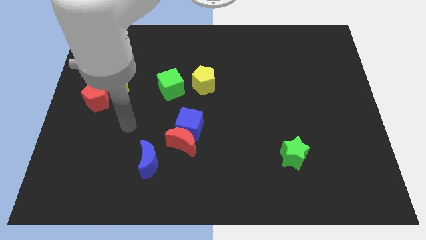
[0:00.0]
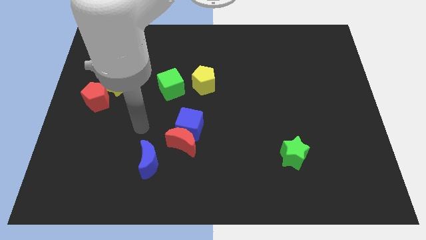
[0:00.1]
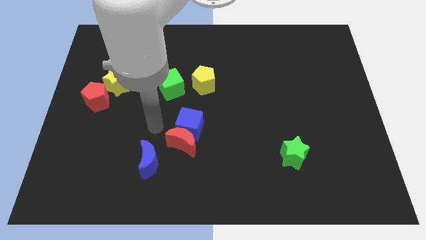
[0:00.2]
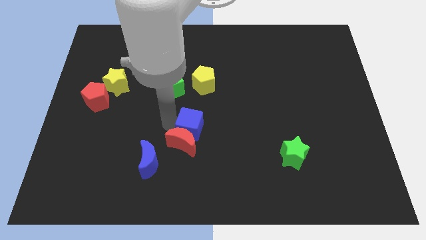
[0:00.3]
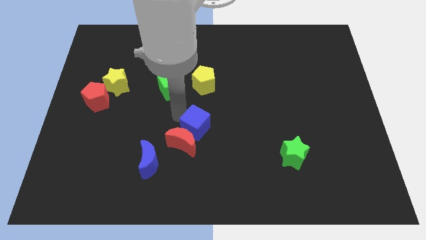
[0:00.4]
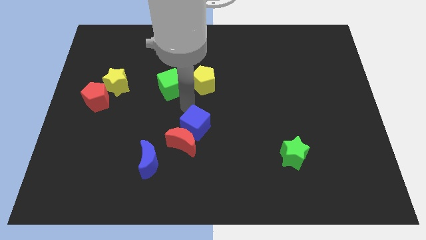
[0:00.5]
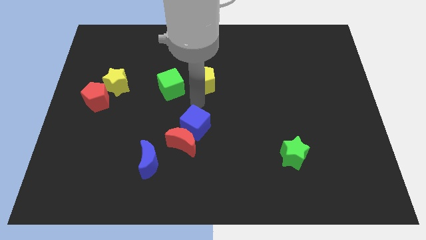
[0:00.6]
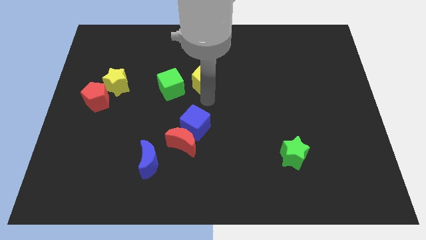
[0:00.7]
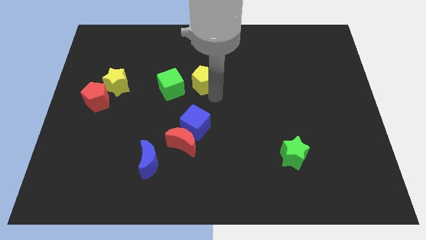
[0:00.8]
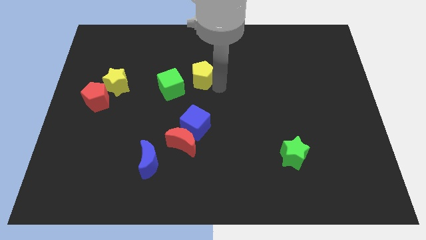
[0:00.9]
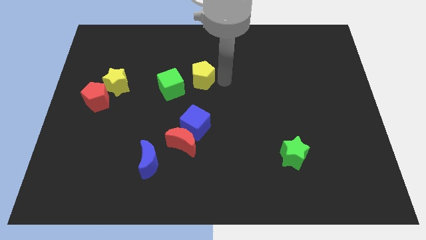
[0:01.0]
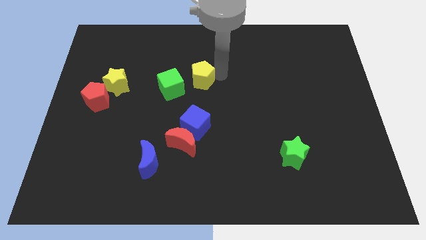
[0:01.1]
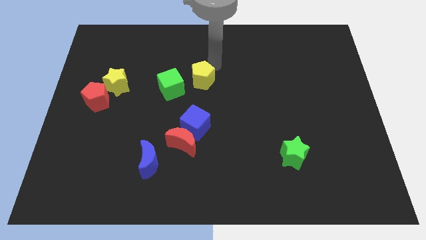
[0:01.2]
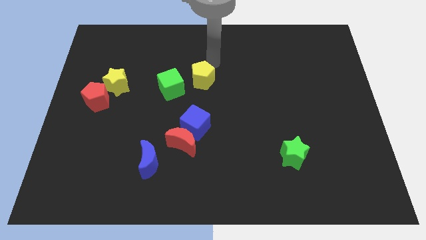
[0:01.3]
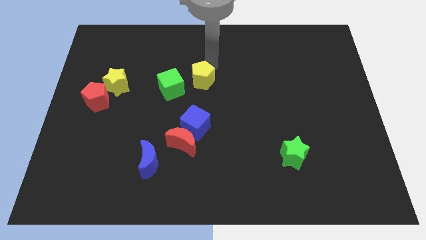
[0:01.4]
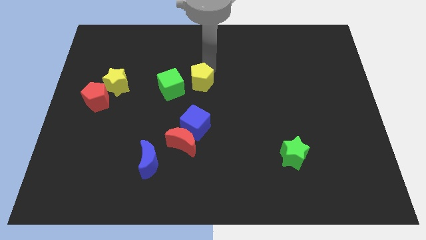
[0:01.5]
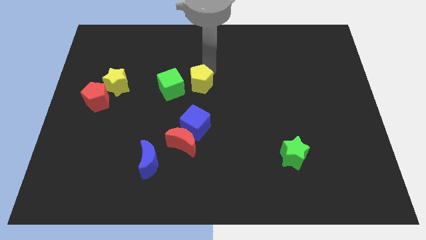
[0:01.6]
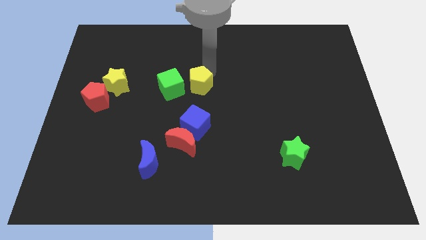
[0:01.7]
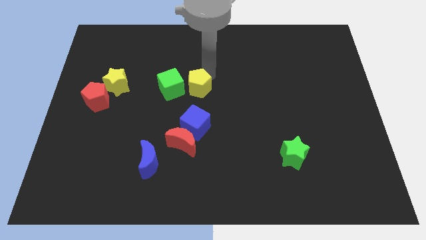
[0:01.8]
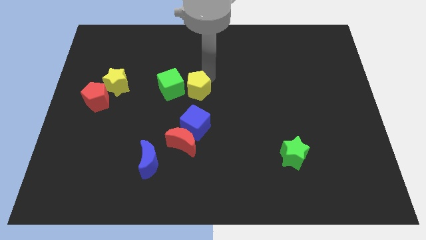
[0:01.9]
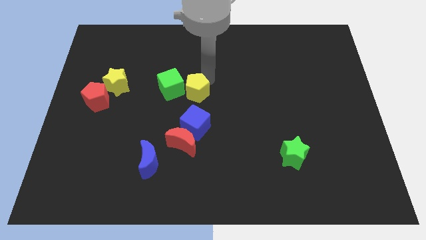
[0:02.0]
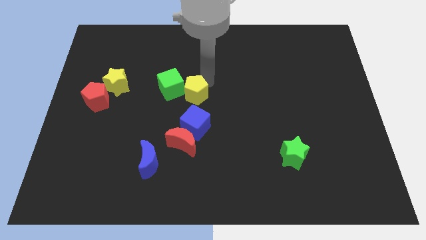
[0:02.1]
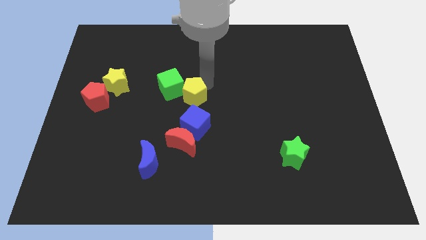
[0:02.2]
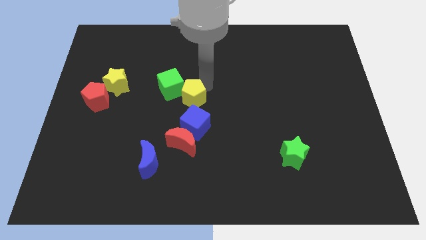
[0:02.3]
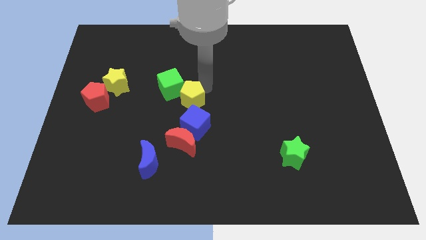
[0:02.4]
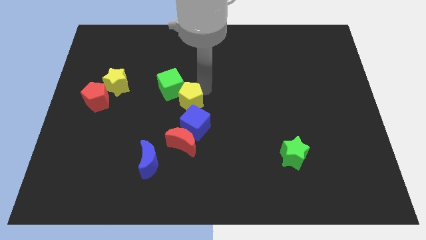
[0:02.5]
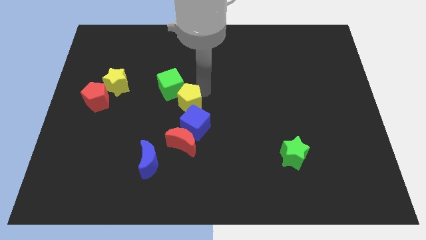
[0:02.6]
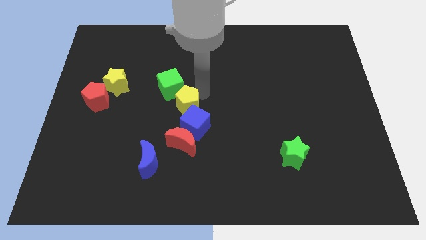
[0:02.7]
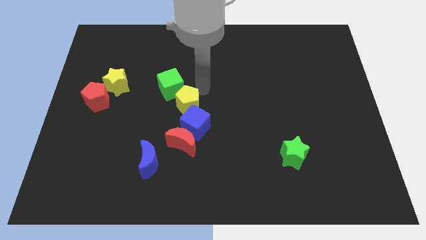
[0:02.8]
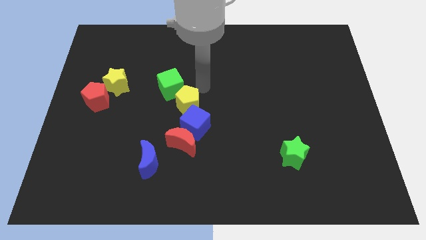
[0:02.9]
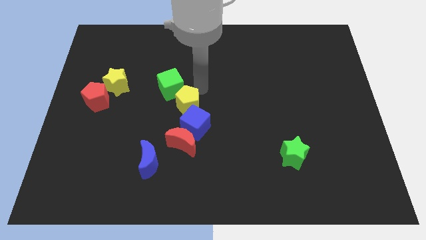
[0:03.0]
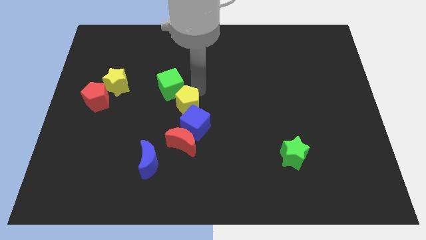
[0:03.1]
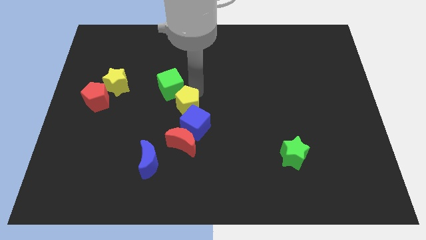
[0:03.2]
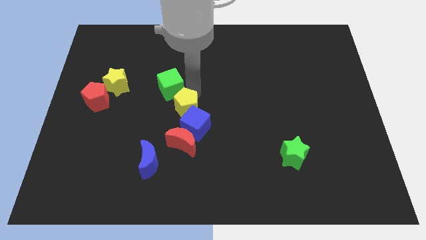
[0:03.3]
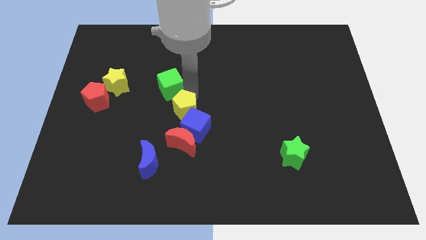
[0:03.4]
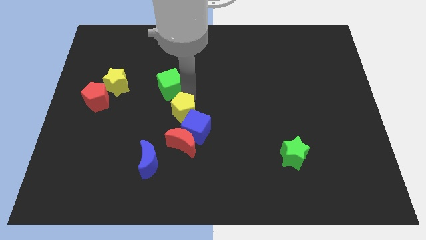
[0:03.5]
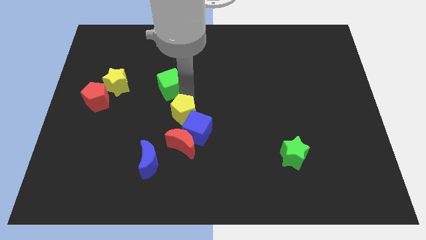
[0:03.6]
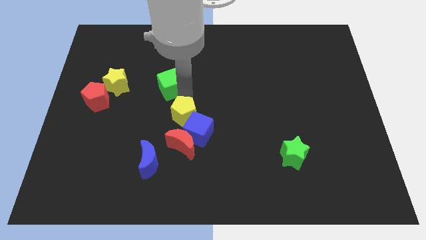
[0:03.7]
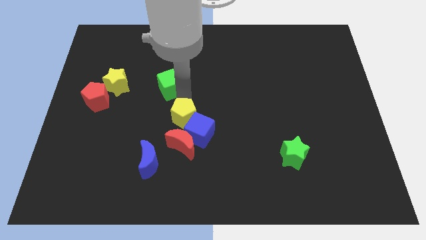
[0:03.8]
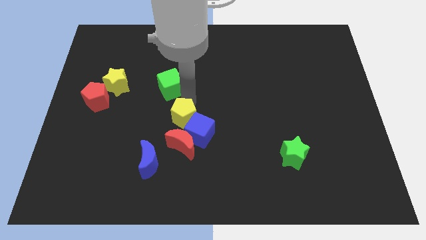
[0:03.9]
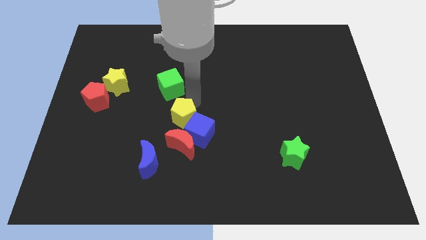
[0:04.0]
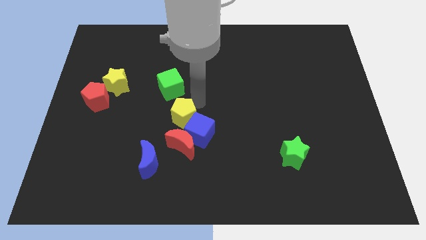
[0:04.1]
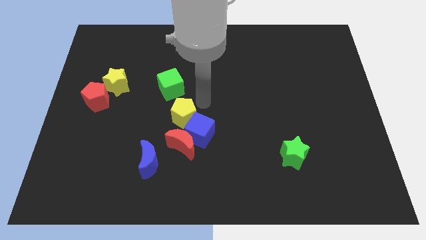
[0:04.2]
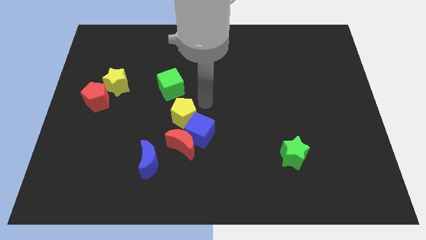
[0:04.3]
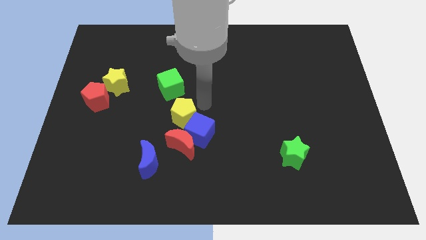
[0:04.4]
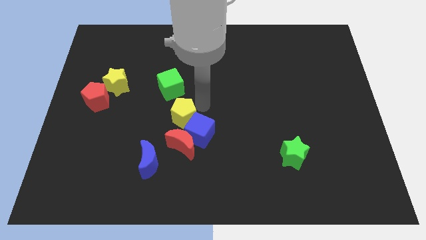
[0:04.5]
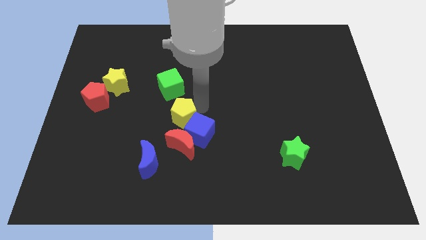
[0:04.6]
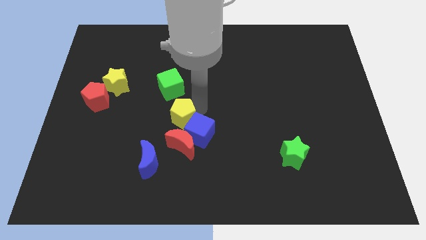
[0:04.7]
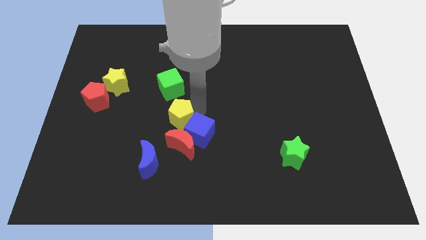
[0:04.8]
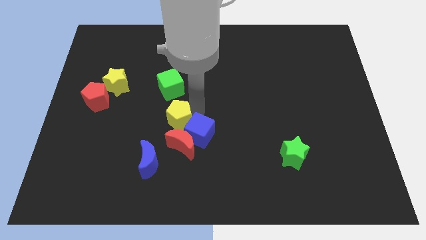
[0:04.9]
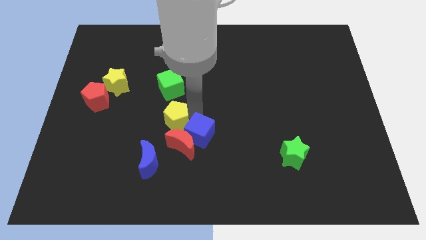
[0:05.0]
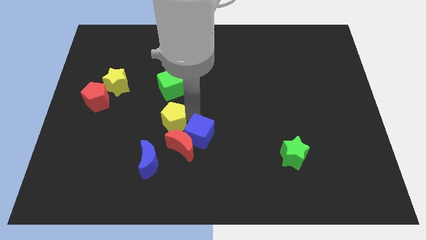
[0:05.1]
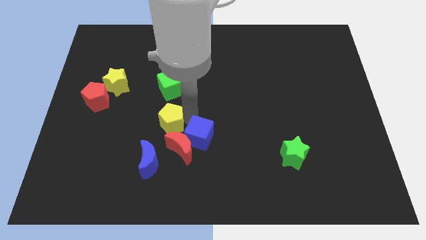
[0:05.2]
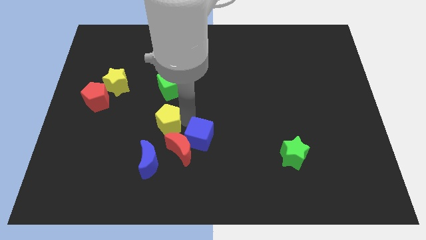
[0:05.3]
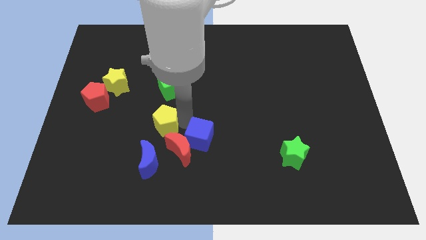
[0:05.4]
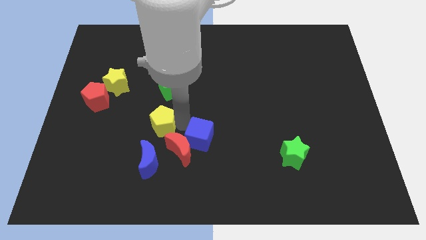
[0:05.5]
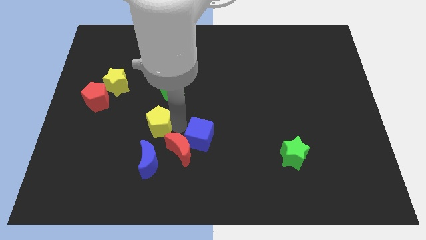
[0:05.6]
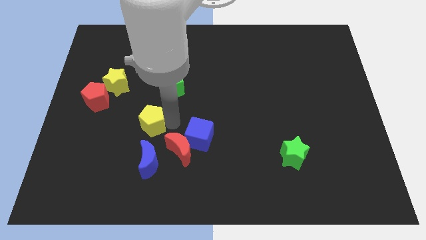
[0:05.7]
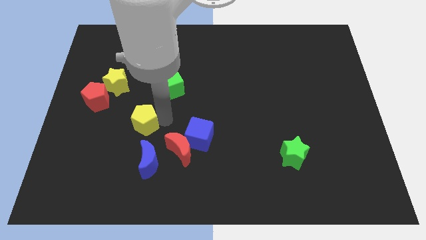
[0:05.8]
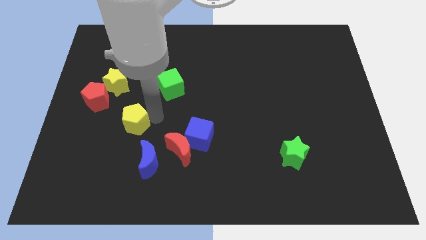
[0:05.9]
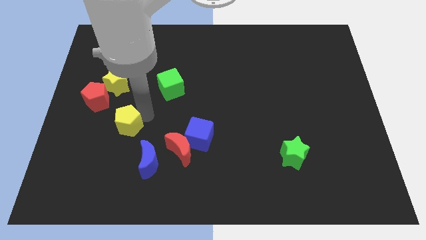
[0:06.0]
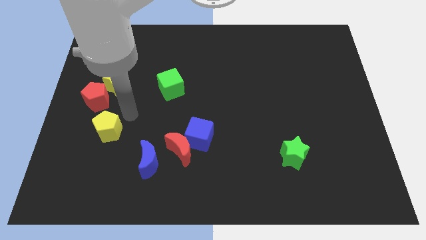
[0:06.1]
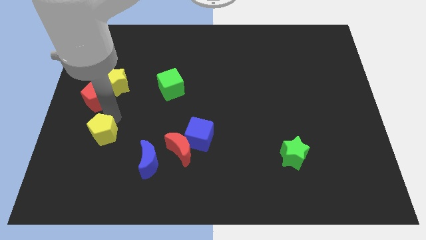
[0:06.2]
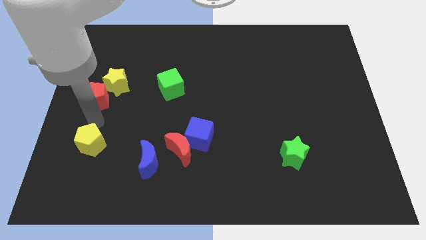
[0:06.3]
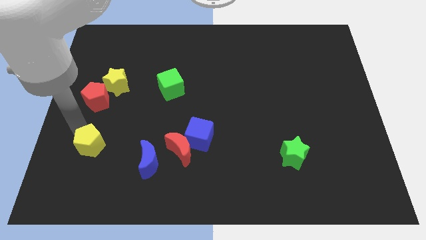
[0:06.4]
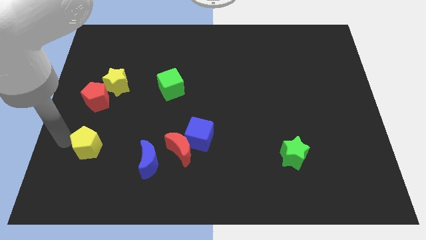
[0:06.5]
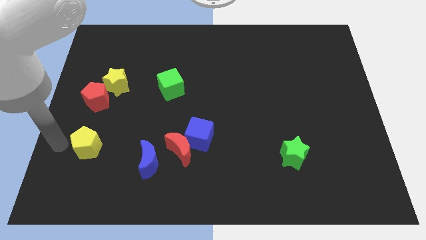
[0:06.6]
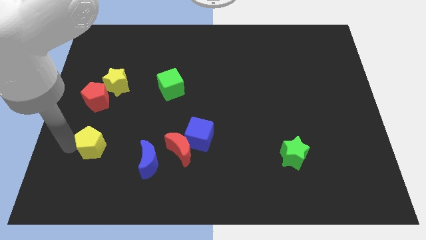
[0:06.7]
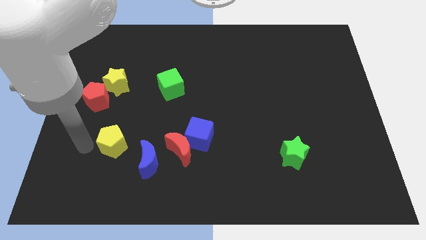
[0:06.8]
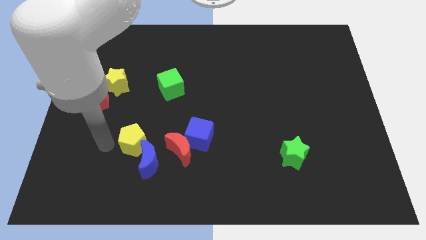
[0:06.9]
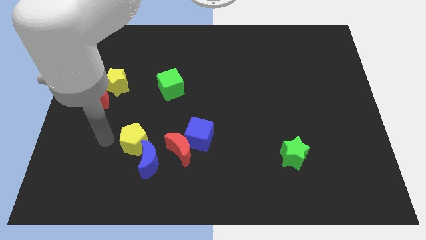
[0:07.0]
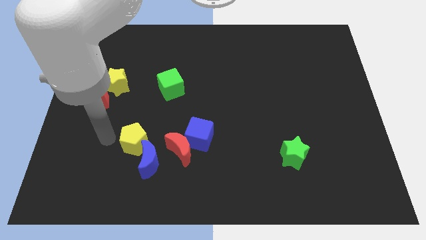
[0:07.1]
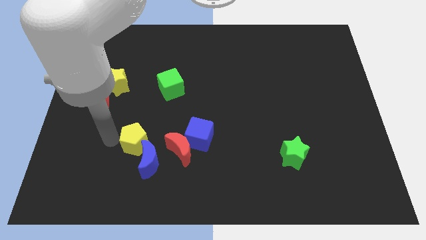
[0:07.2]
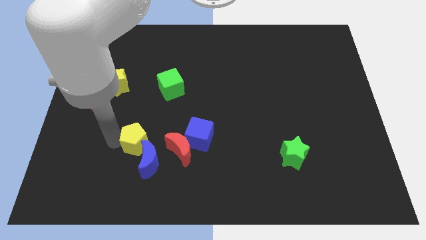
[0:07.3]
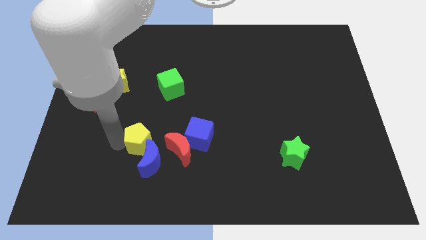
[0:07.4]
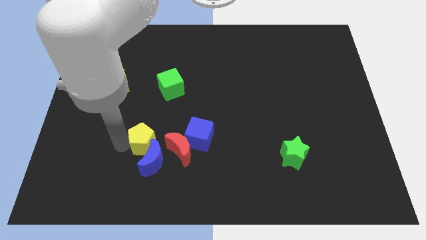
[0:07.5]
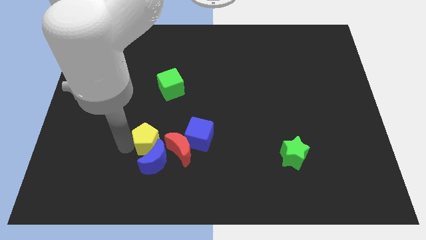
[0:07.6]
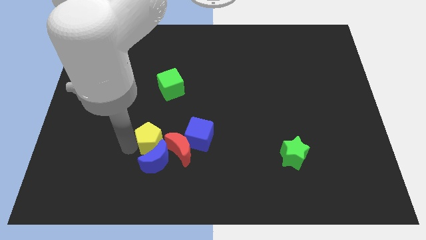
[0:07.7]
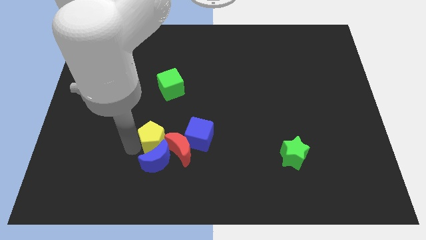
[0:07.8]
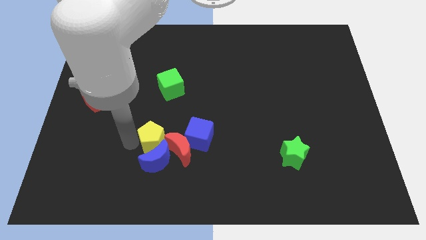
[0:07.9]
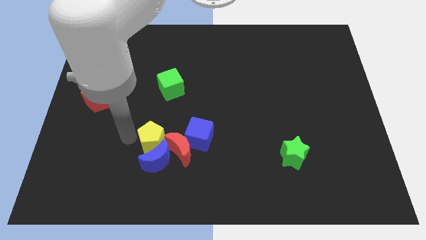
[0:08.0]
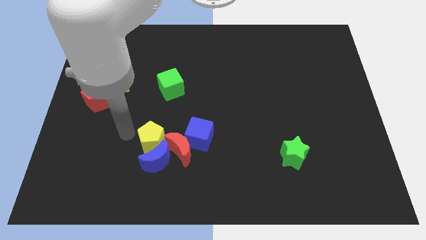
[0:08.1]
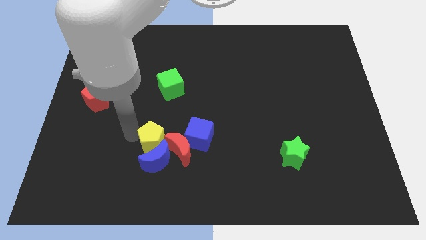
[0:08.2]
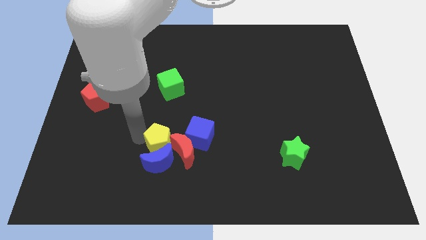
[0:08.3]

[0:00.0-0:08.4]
put the yellow pentagon close to the red moon
